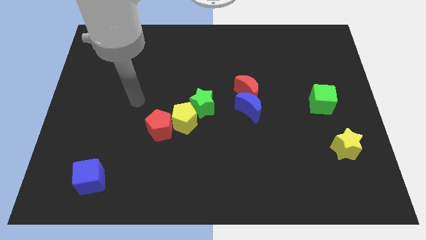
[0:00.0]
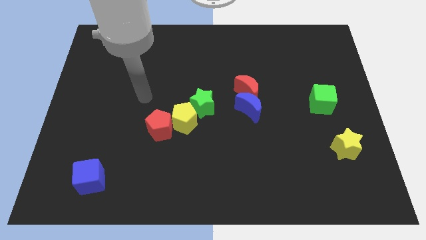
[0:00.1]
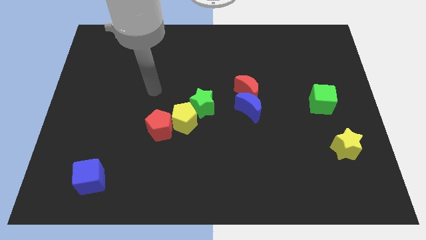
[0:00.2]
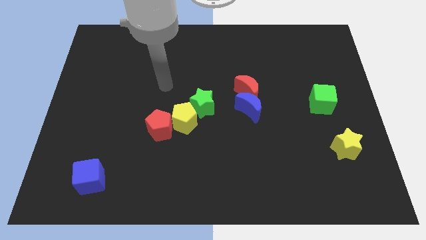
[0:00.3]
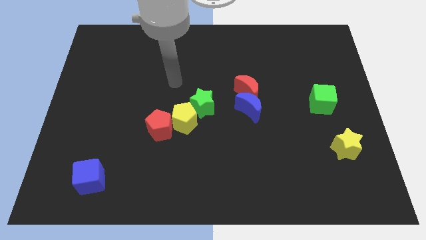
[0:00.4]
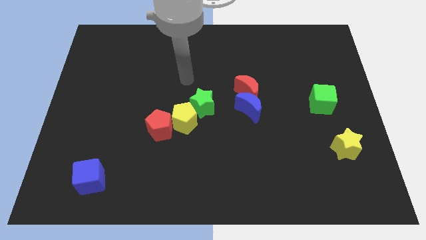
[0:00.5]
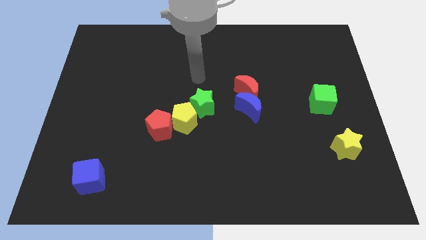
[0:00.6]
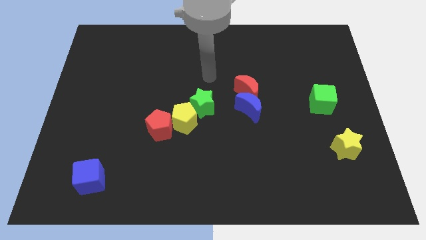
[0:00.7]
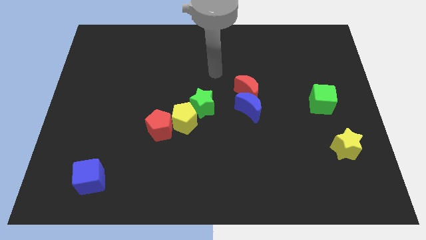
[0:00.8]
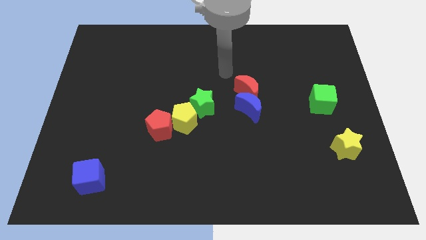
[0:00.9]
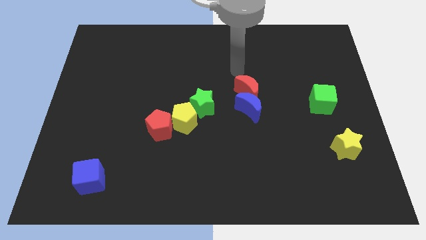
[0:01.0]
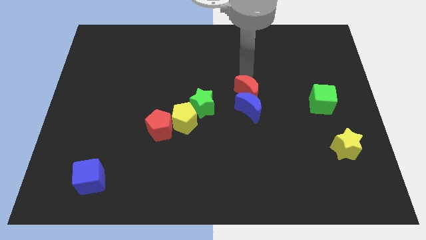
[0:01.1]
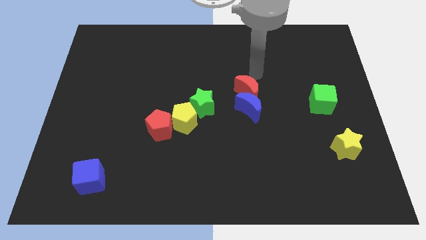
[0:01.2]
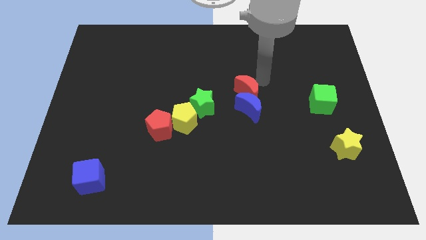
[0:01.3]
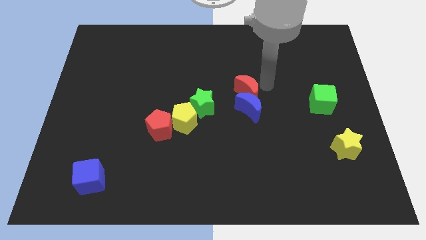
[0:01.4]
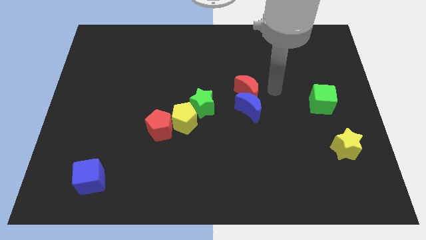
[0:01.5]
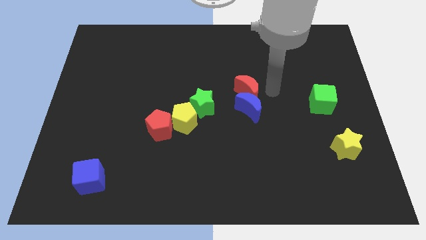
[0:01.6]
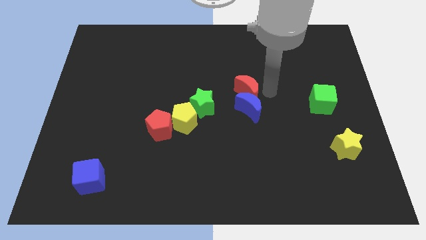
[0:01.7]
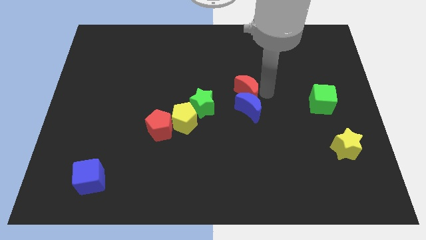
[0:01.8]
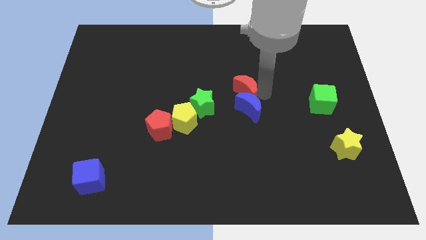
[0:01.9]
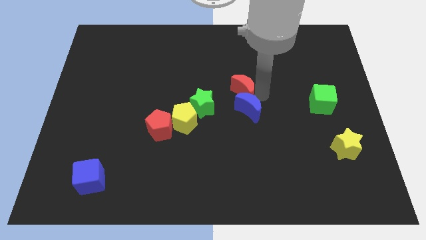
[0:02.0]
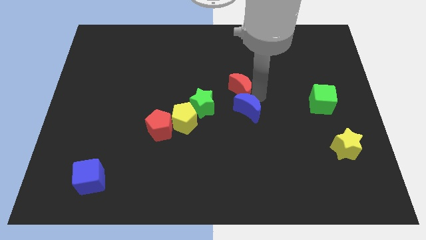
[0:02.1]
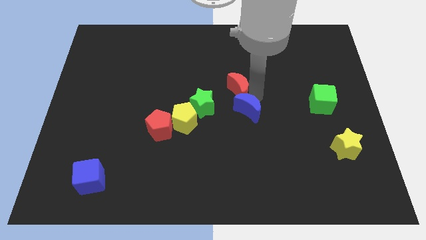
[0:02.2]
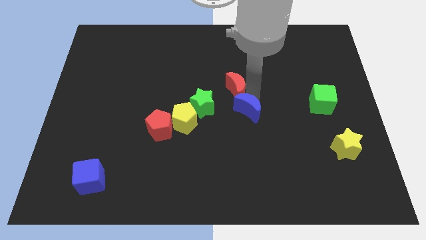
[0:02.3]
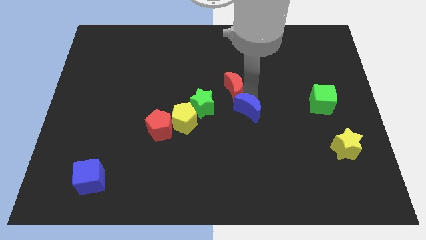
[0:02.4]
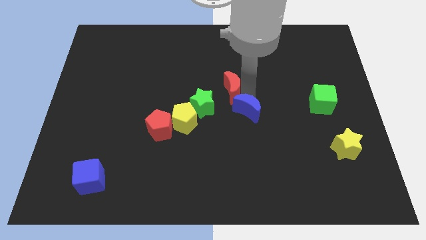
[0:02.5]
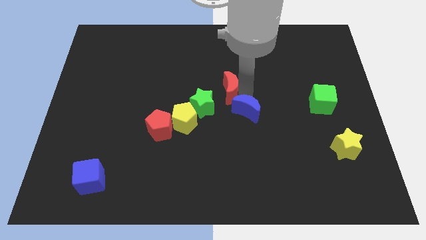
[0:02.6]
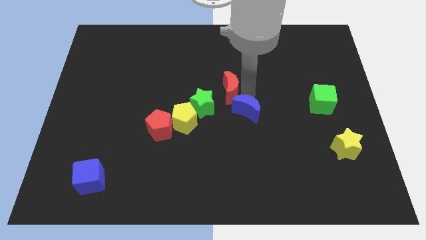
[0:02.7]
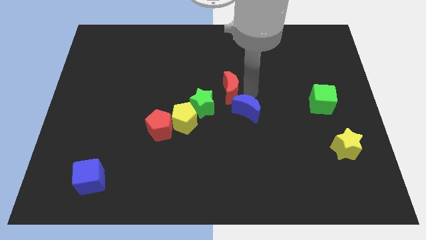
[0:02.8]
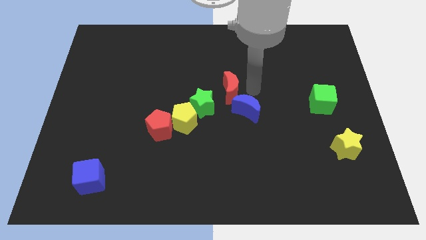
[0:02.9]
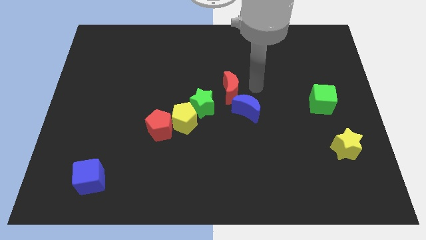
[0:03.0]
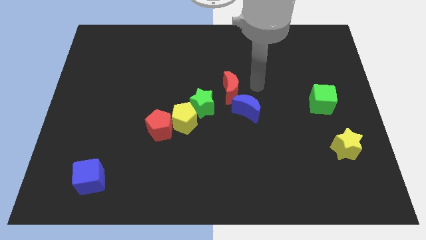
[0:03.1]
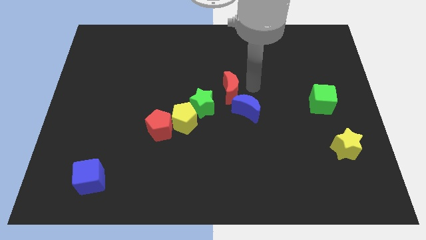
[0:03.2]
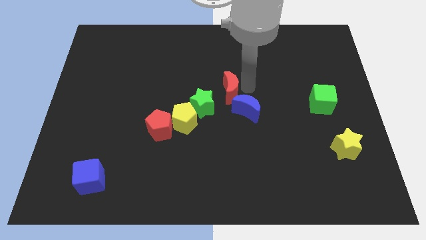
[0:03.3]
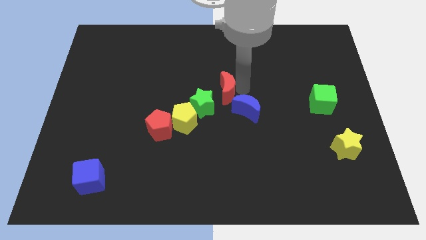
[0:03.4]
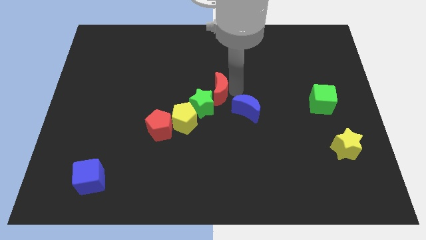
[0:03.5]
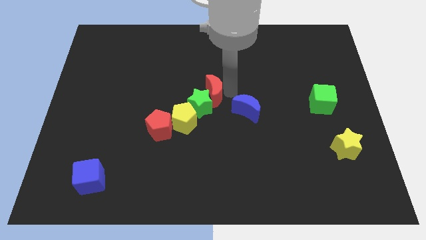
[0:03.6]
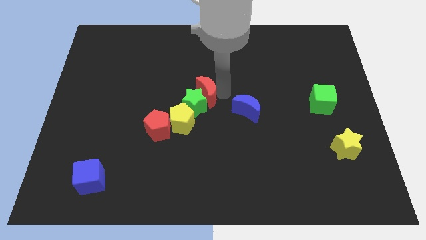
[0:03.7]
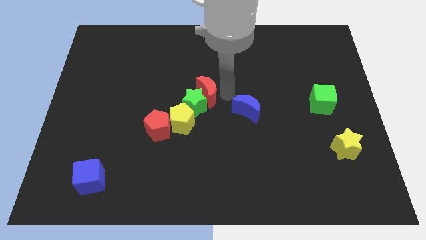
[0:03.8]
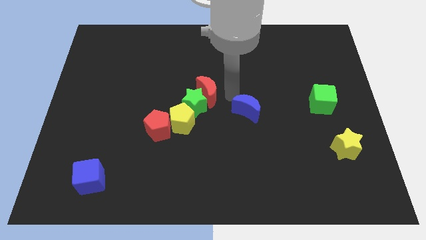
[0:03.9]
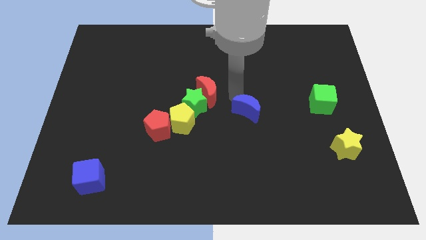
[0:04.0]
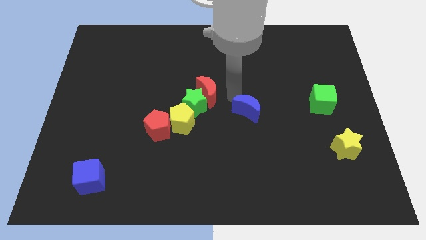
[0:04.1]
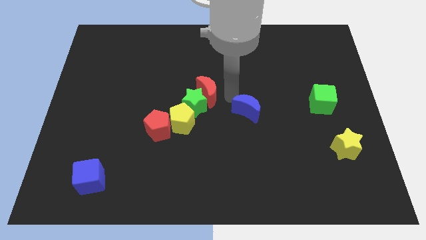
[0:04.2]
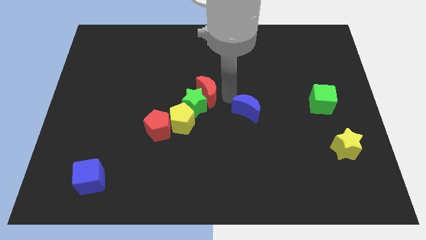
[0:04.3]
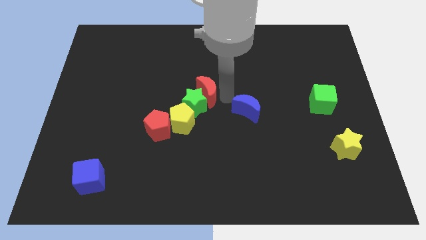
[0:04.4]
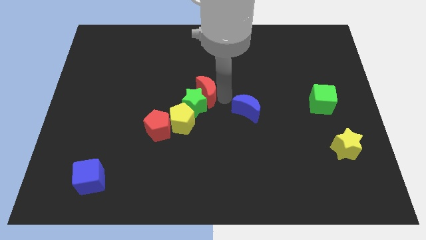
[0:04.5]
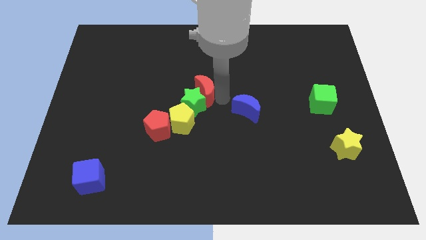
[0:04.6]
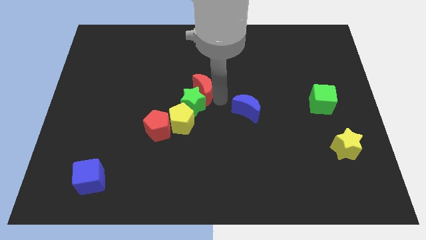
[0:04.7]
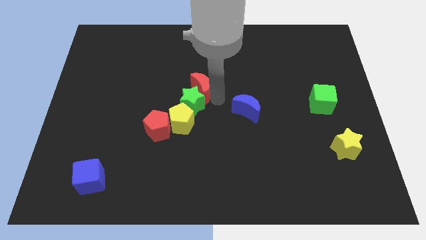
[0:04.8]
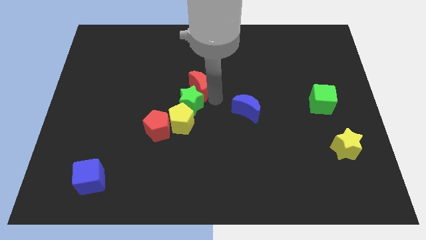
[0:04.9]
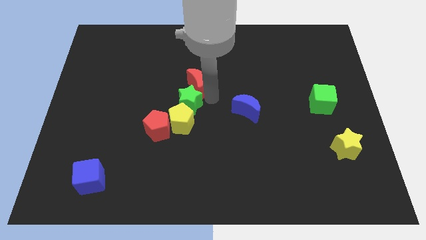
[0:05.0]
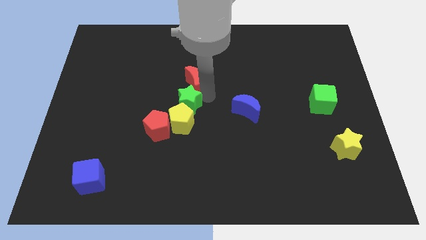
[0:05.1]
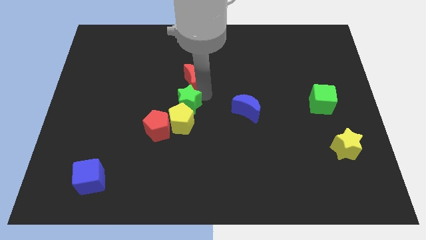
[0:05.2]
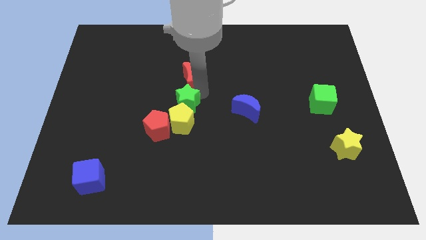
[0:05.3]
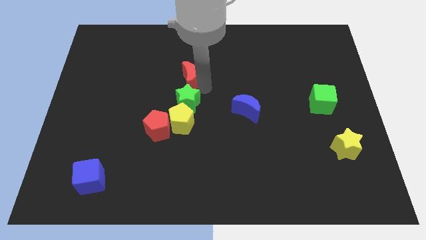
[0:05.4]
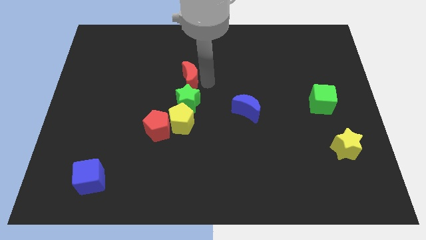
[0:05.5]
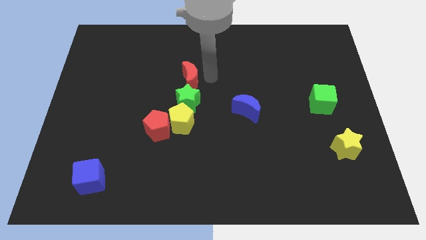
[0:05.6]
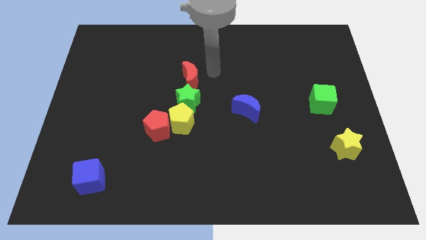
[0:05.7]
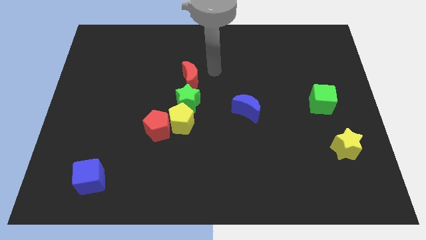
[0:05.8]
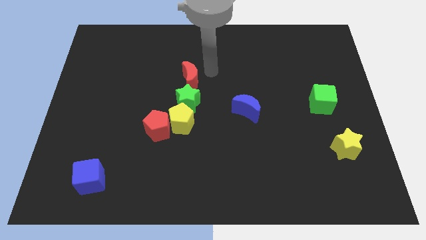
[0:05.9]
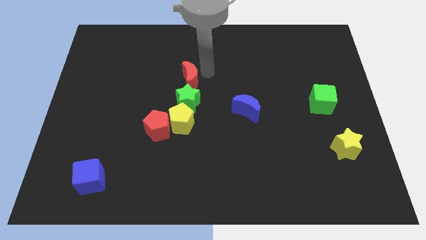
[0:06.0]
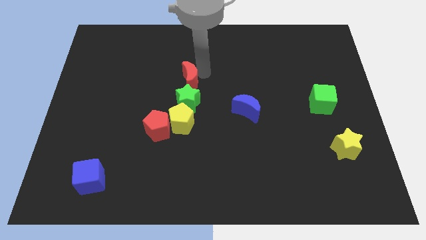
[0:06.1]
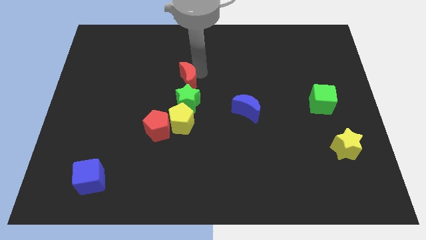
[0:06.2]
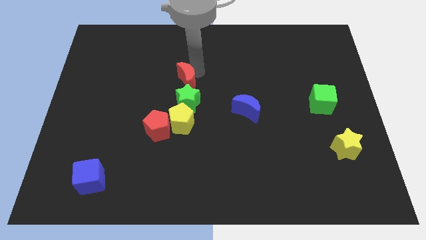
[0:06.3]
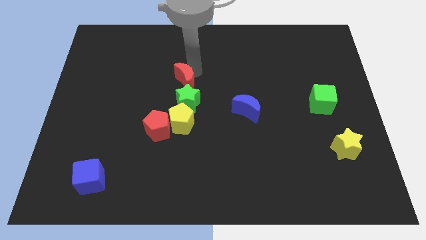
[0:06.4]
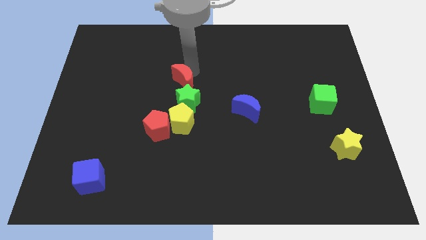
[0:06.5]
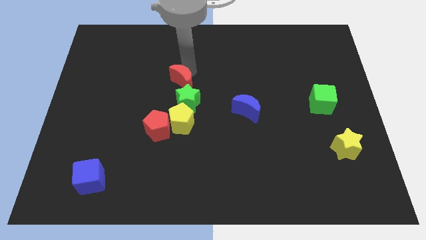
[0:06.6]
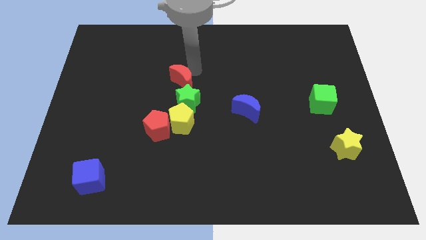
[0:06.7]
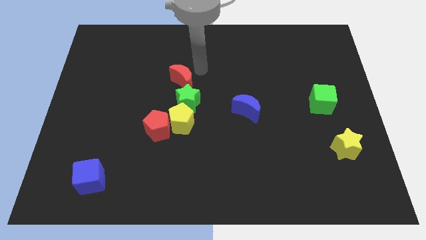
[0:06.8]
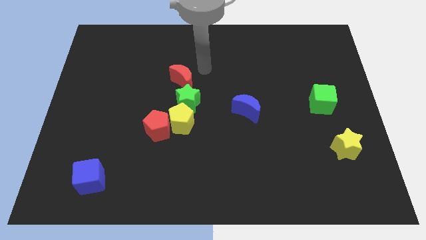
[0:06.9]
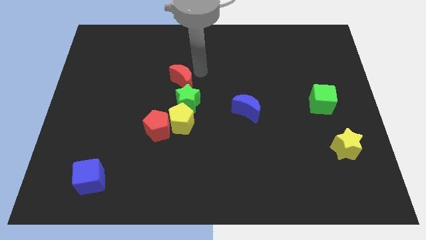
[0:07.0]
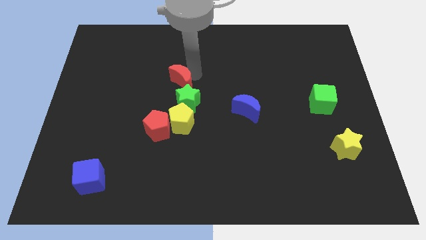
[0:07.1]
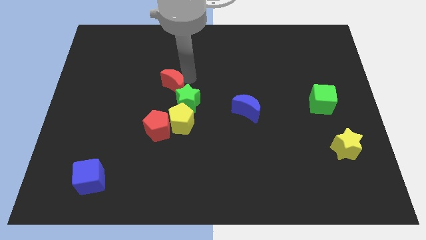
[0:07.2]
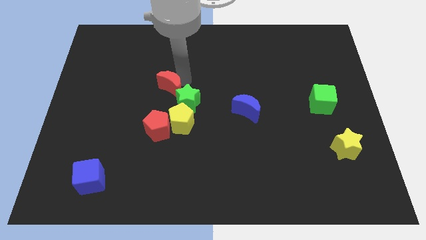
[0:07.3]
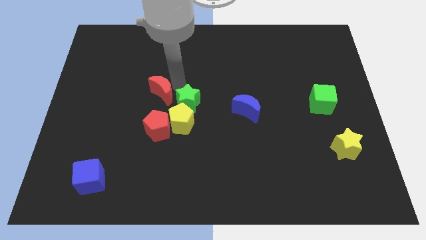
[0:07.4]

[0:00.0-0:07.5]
slide the red moon left

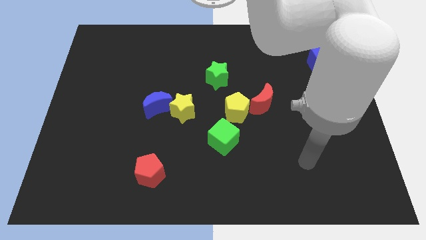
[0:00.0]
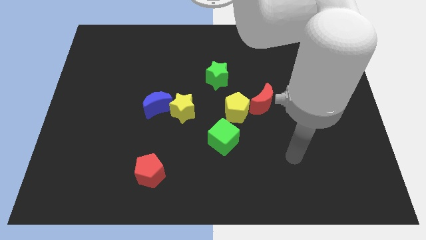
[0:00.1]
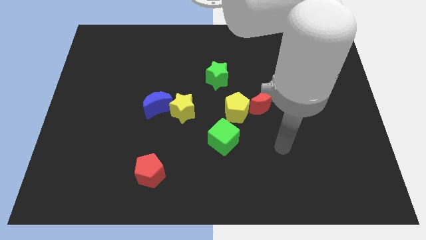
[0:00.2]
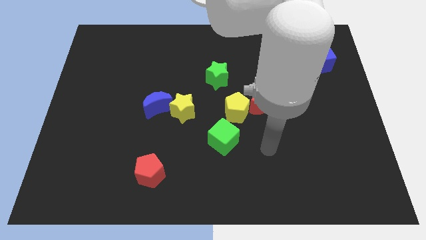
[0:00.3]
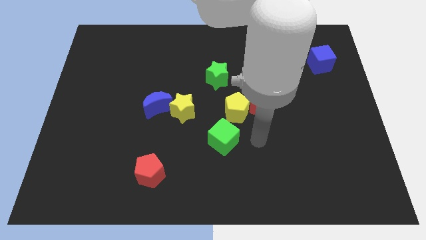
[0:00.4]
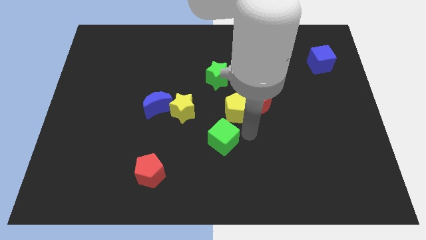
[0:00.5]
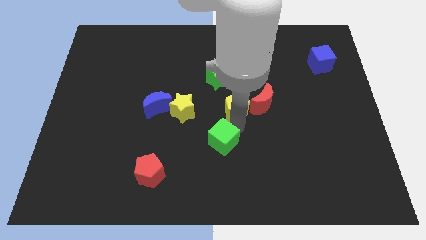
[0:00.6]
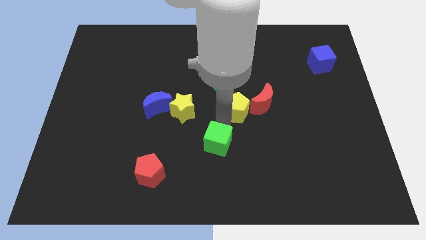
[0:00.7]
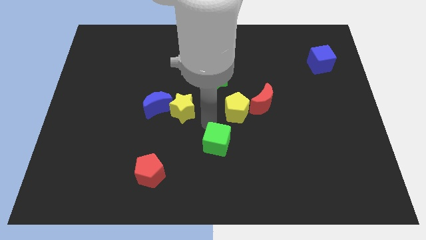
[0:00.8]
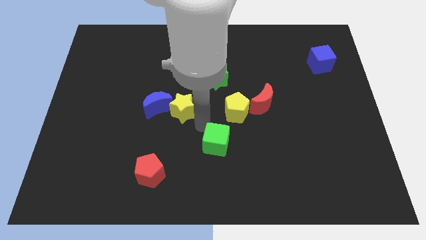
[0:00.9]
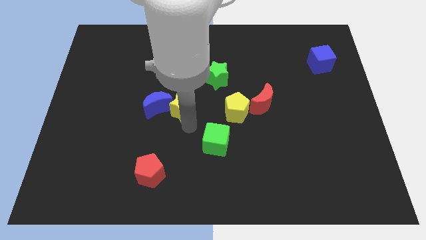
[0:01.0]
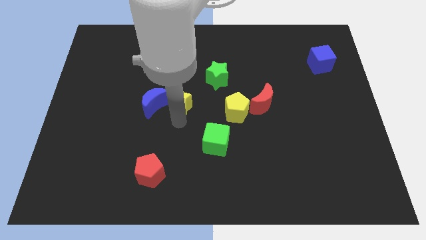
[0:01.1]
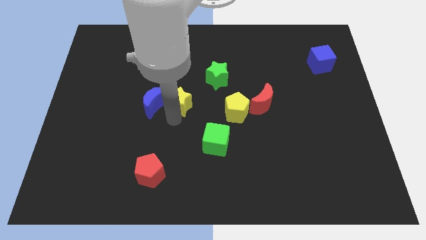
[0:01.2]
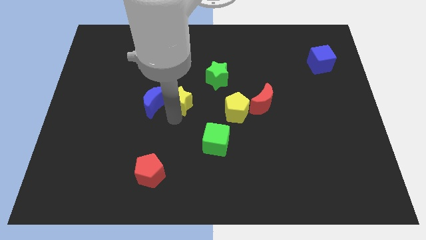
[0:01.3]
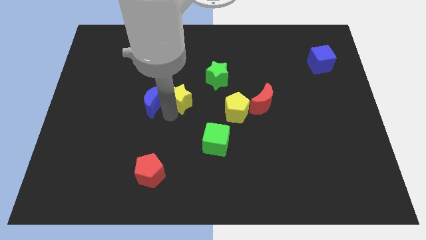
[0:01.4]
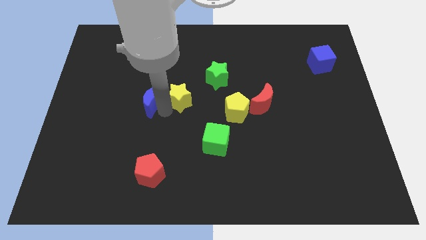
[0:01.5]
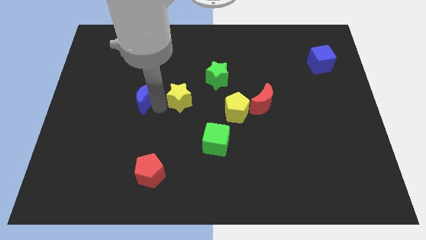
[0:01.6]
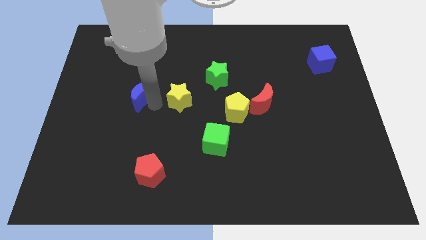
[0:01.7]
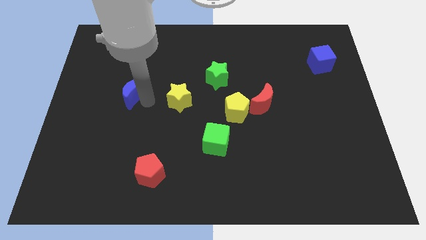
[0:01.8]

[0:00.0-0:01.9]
slightly move the blue moon up and to the left diagonally
